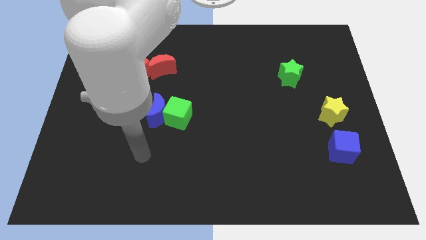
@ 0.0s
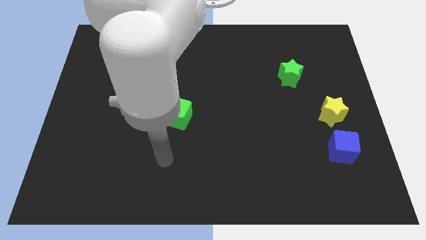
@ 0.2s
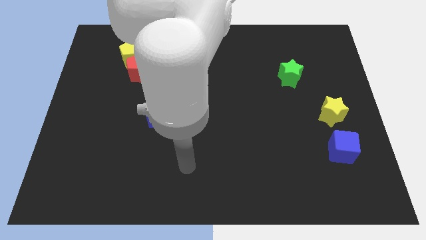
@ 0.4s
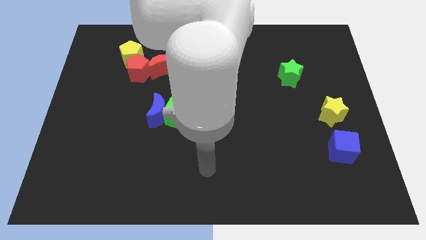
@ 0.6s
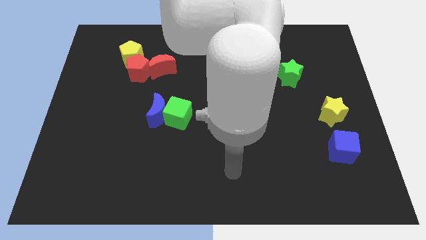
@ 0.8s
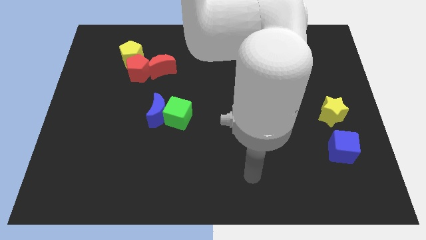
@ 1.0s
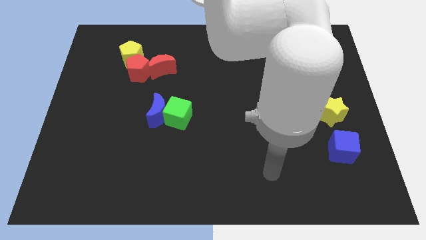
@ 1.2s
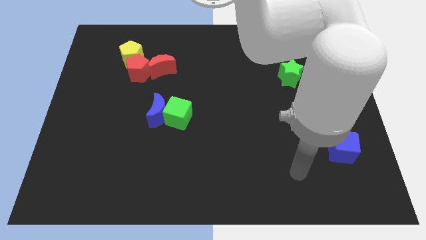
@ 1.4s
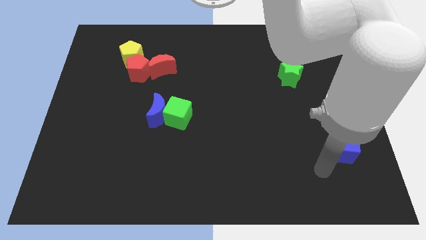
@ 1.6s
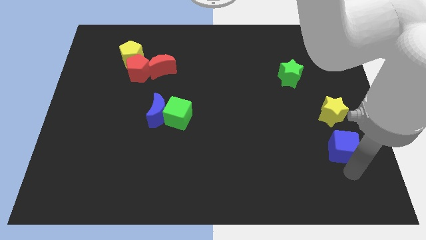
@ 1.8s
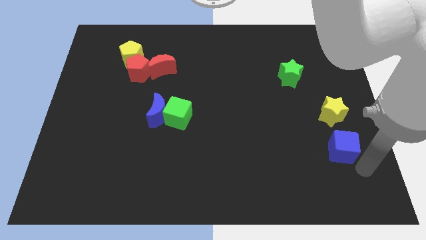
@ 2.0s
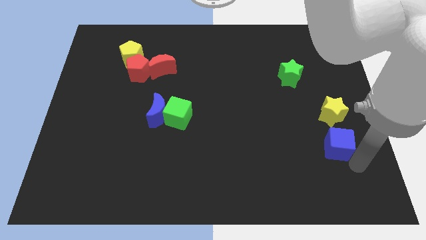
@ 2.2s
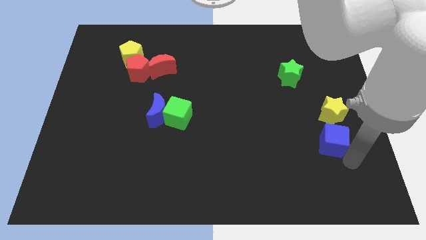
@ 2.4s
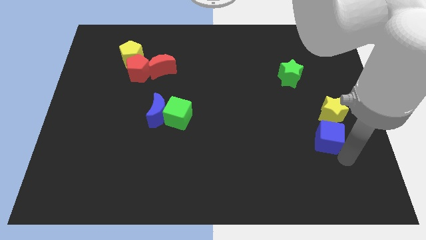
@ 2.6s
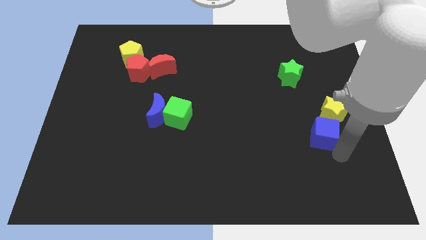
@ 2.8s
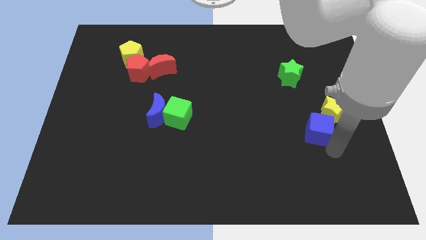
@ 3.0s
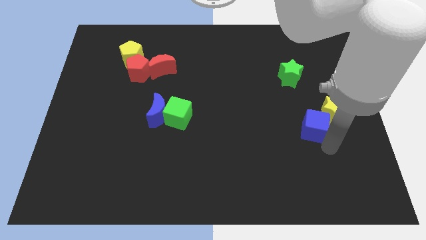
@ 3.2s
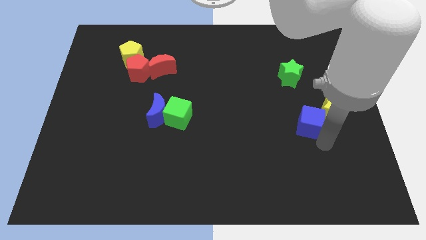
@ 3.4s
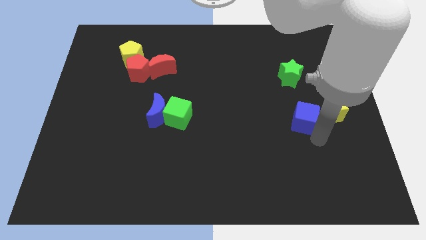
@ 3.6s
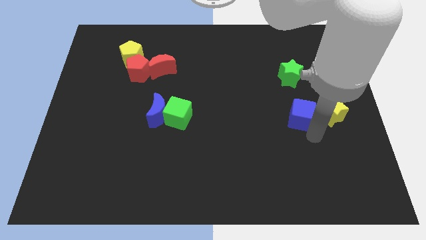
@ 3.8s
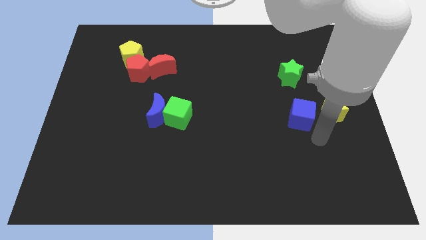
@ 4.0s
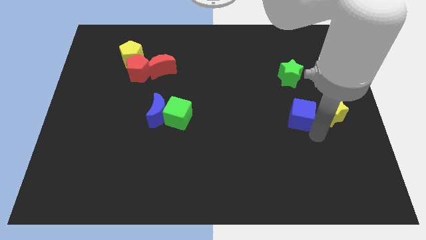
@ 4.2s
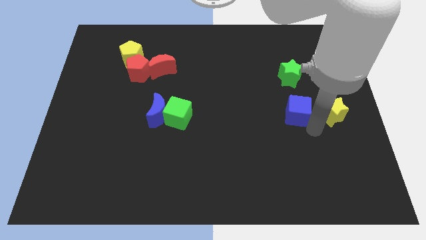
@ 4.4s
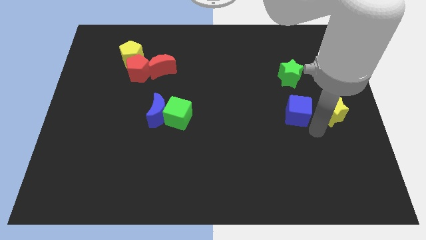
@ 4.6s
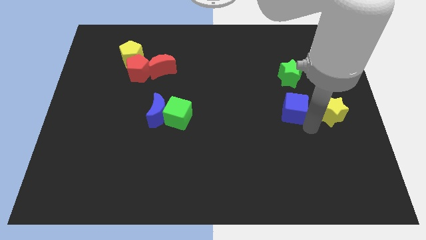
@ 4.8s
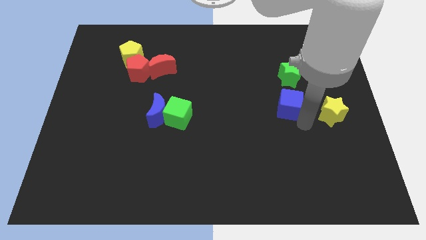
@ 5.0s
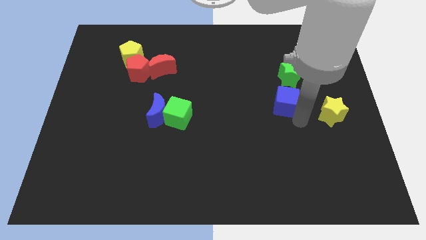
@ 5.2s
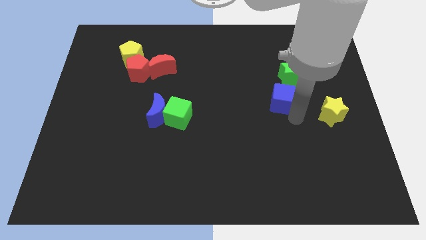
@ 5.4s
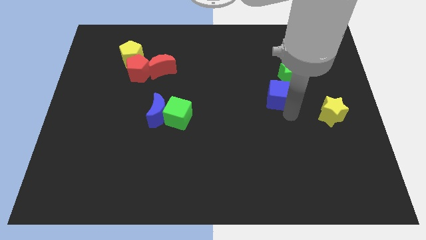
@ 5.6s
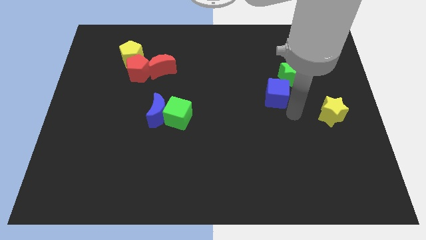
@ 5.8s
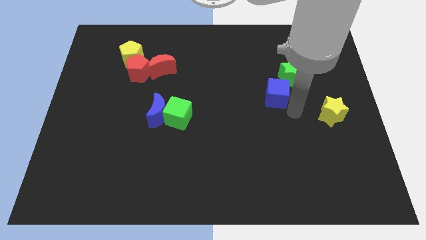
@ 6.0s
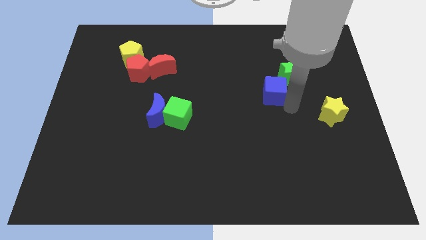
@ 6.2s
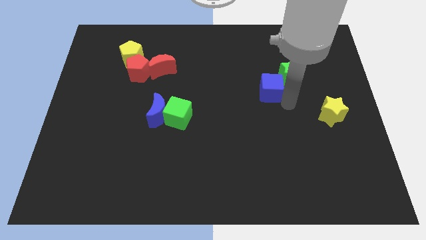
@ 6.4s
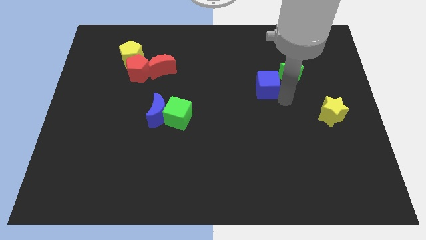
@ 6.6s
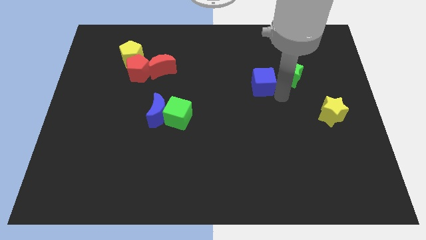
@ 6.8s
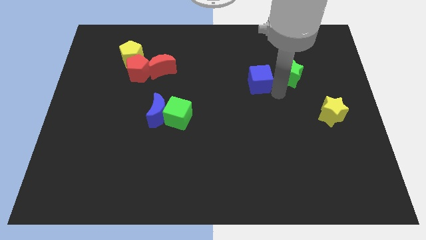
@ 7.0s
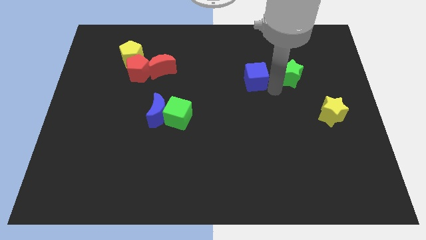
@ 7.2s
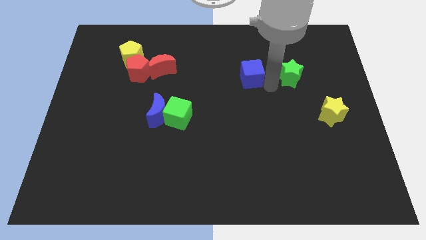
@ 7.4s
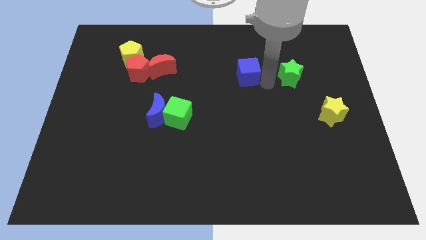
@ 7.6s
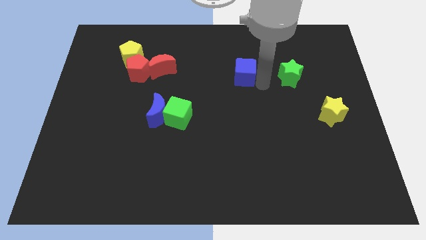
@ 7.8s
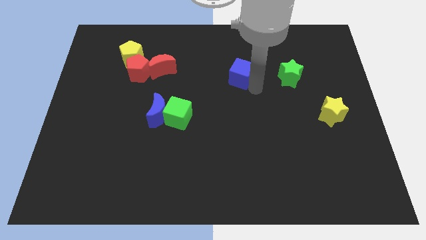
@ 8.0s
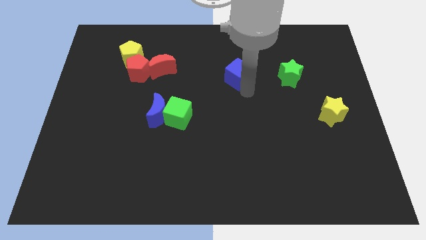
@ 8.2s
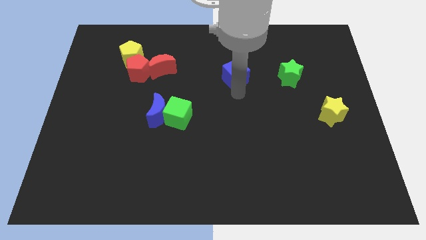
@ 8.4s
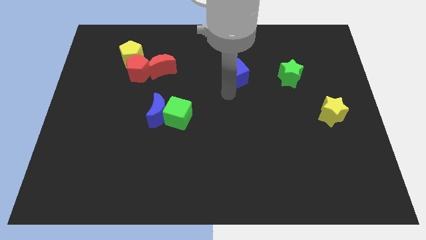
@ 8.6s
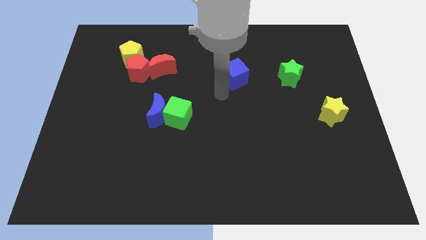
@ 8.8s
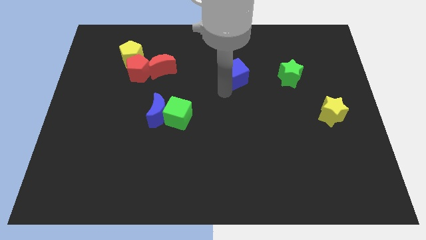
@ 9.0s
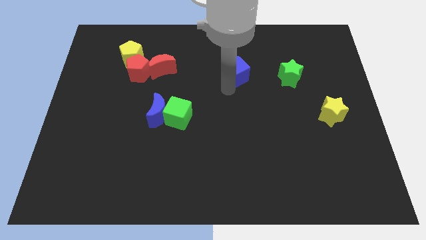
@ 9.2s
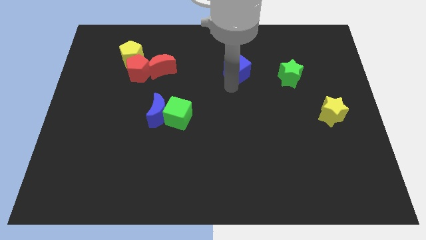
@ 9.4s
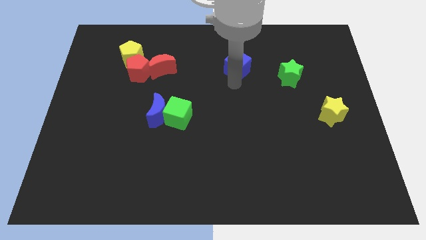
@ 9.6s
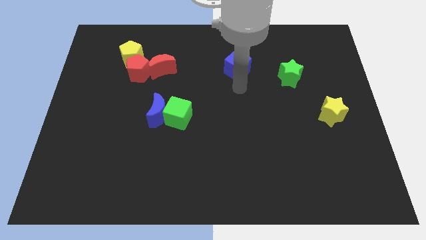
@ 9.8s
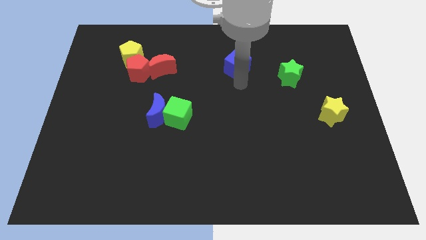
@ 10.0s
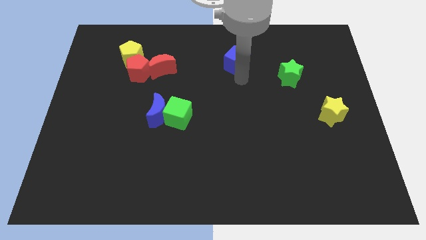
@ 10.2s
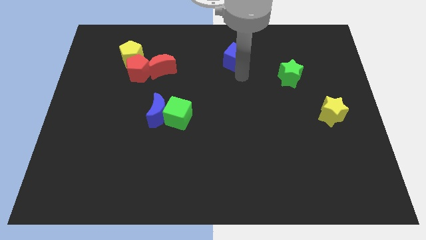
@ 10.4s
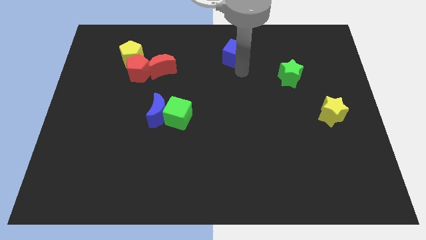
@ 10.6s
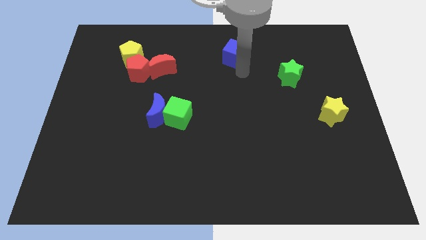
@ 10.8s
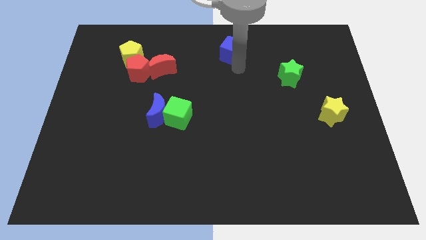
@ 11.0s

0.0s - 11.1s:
move the blue cube to the towards your base

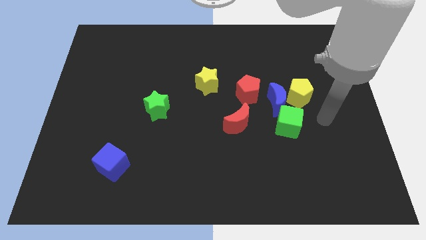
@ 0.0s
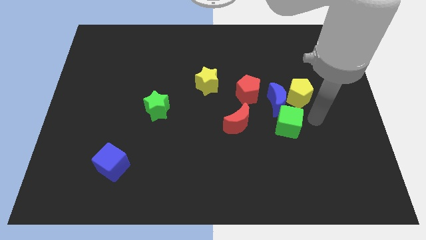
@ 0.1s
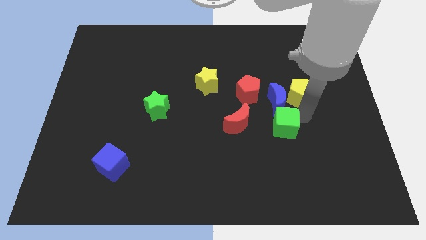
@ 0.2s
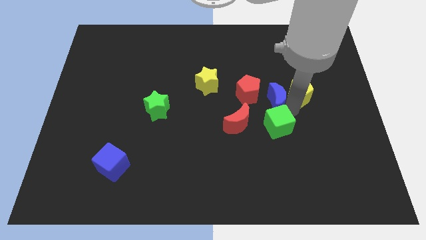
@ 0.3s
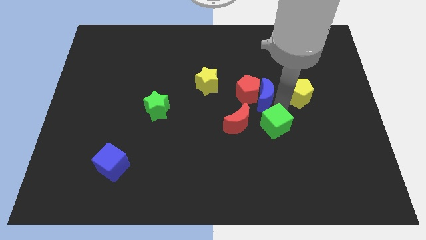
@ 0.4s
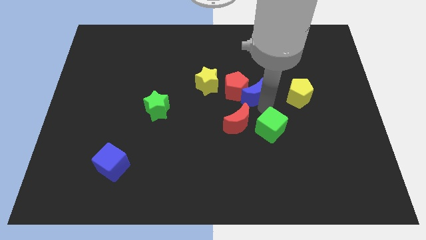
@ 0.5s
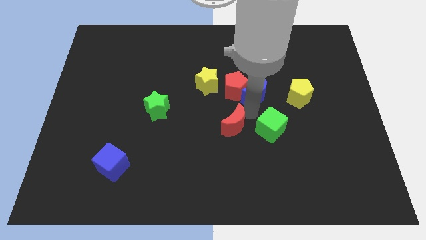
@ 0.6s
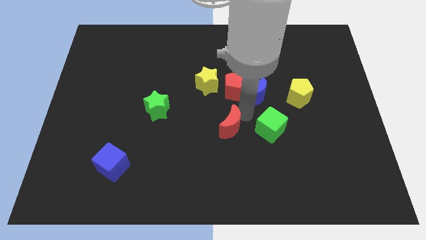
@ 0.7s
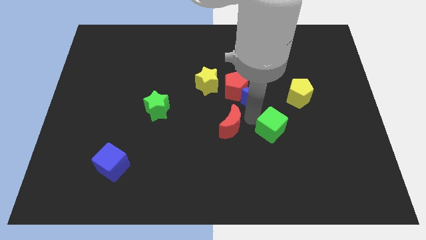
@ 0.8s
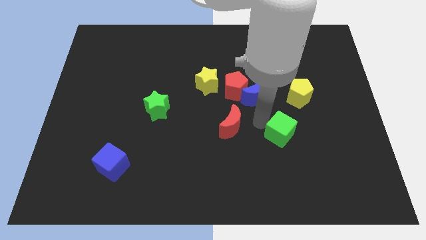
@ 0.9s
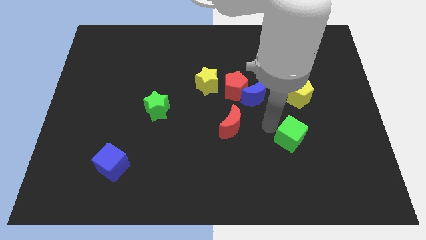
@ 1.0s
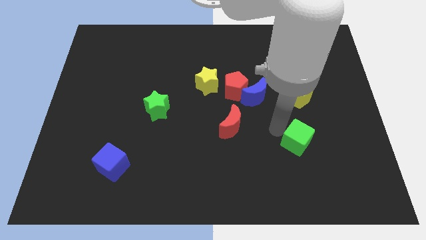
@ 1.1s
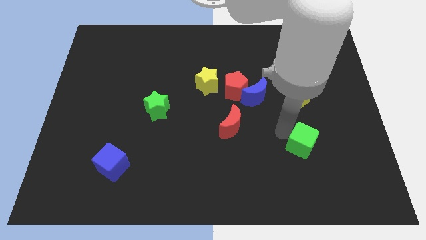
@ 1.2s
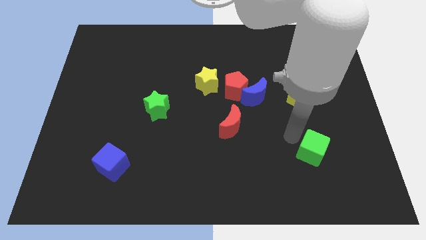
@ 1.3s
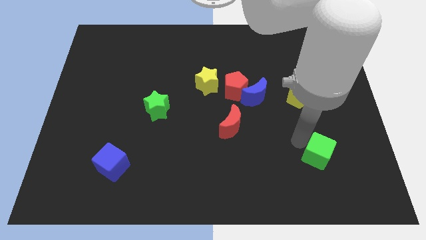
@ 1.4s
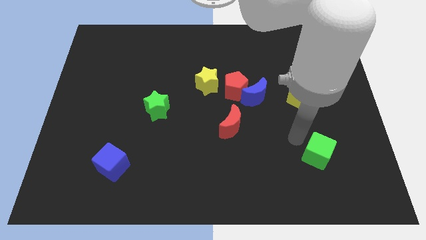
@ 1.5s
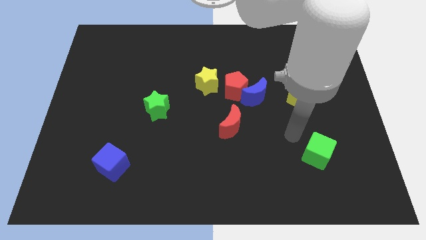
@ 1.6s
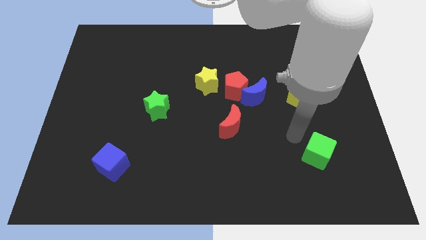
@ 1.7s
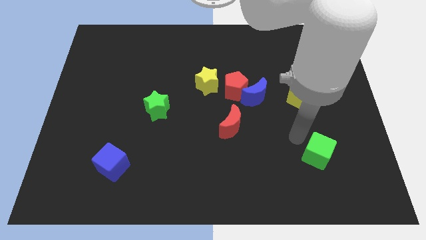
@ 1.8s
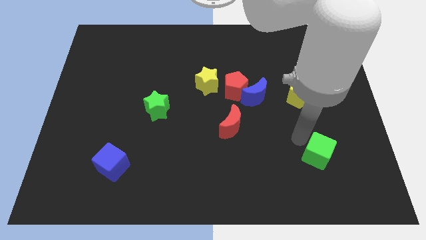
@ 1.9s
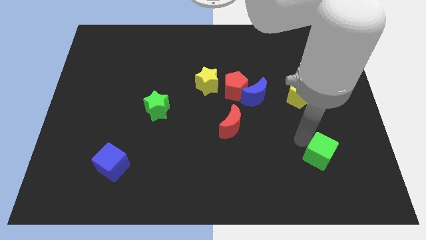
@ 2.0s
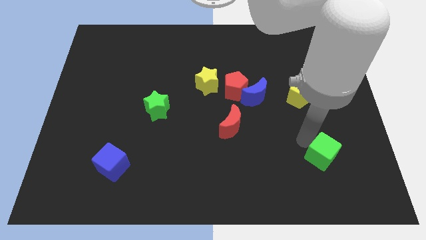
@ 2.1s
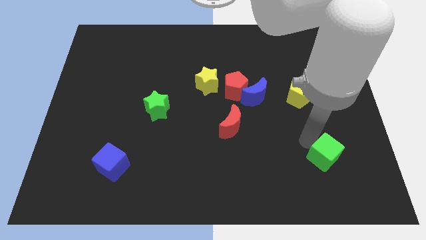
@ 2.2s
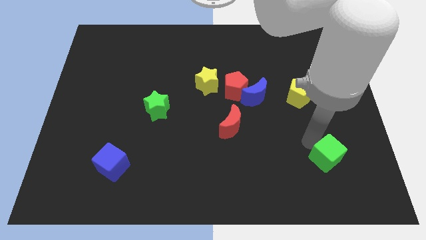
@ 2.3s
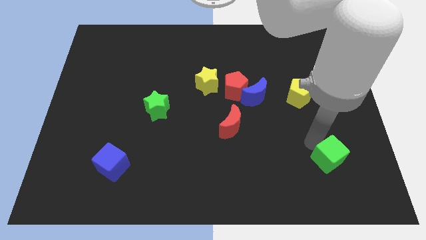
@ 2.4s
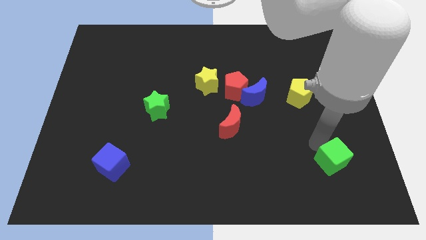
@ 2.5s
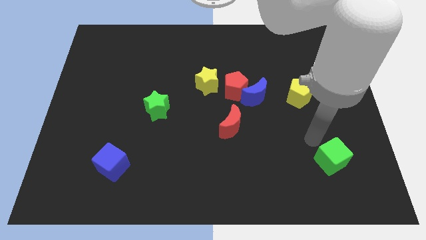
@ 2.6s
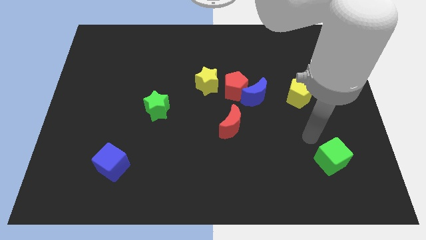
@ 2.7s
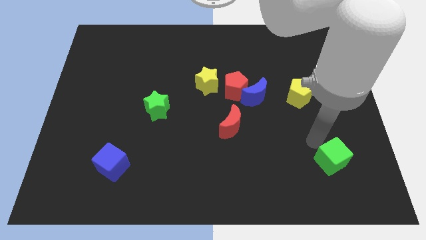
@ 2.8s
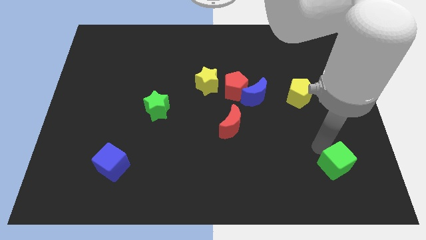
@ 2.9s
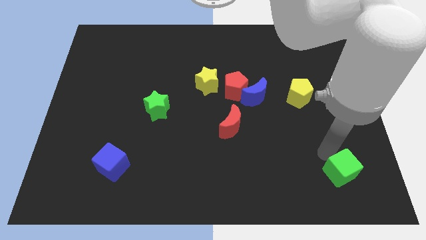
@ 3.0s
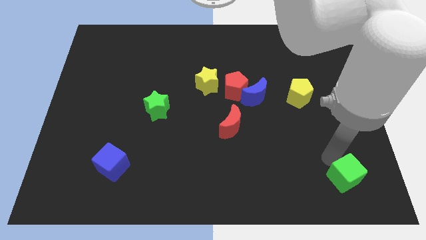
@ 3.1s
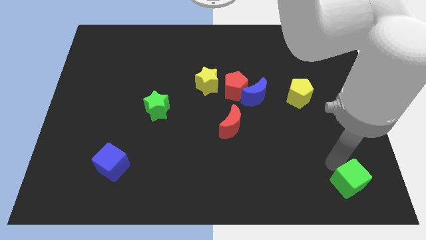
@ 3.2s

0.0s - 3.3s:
put the green cube to the bottom right of the board
